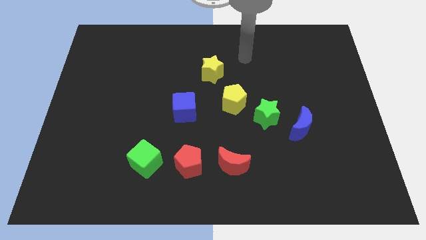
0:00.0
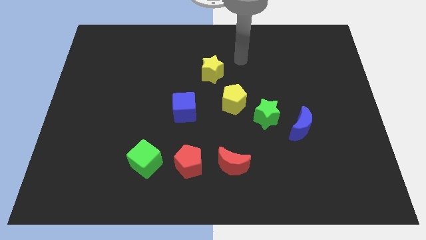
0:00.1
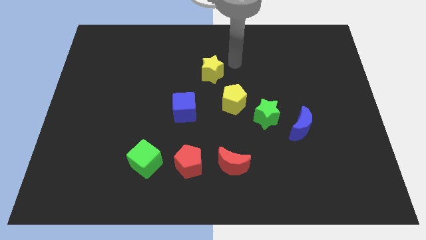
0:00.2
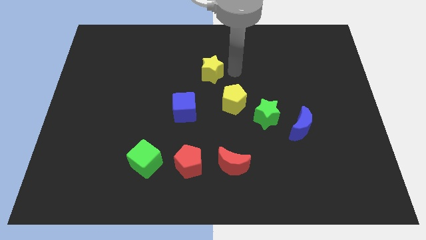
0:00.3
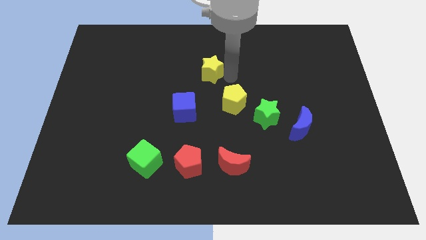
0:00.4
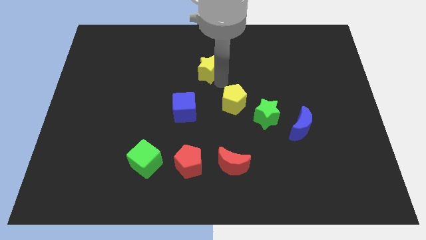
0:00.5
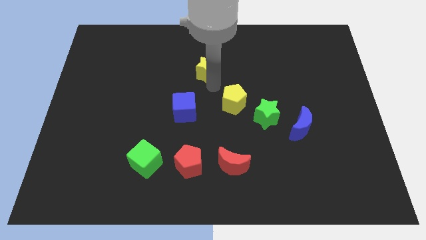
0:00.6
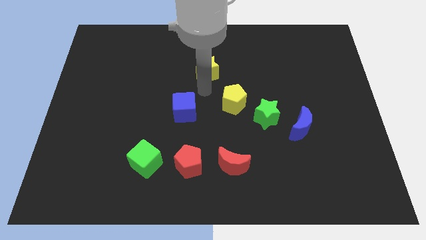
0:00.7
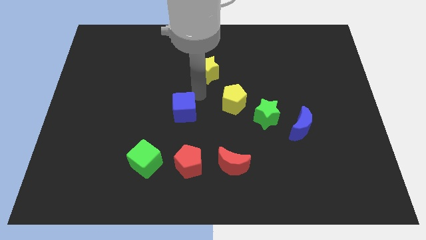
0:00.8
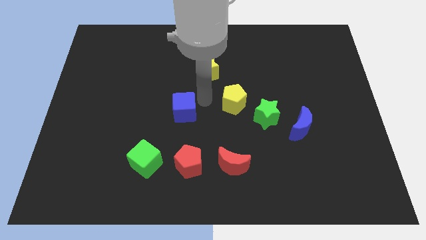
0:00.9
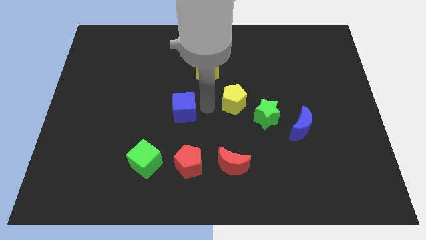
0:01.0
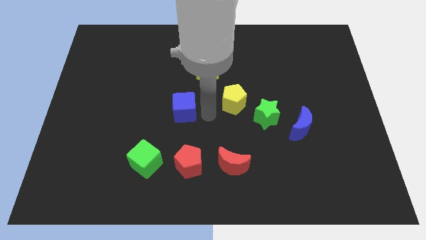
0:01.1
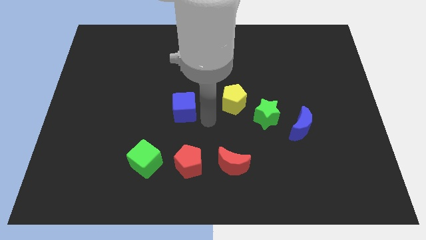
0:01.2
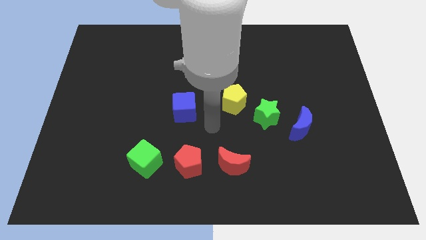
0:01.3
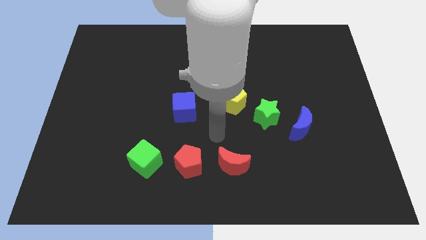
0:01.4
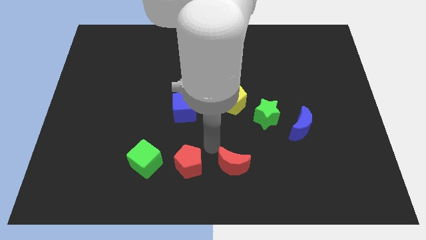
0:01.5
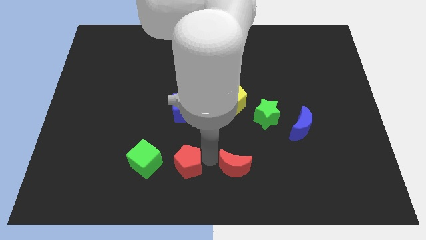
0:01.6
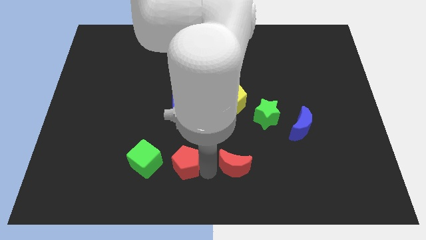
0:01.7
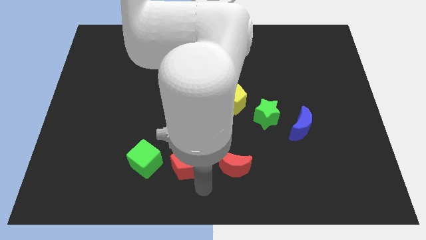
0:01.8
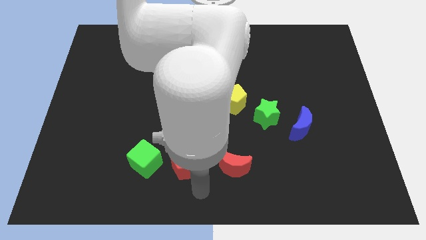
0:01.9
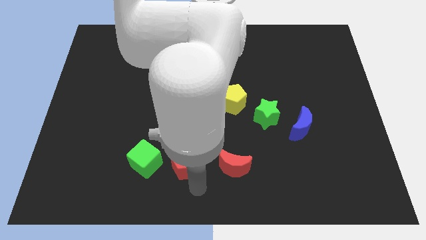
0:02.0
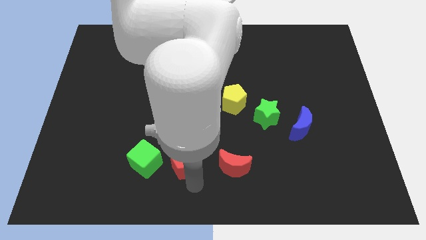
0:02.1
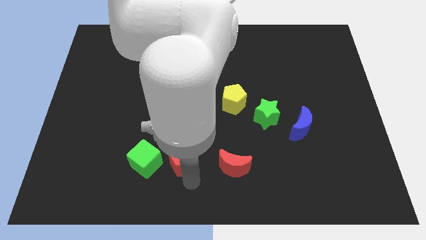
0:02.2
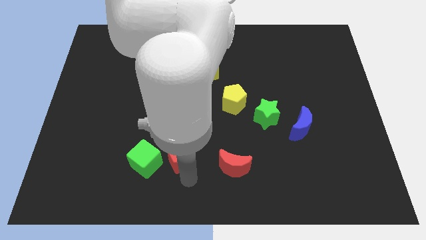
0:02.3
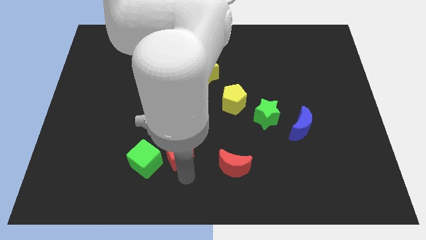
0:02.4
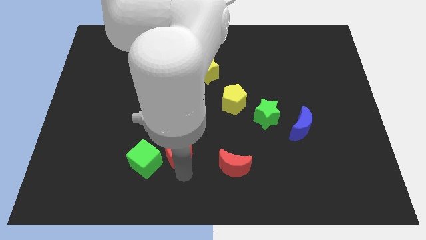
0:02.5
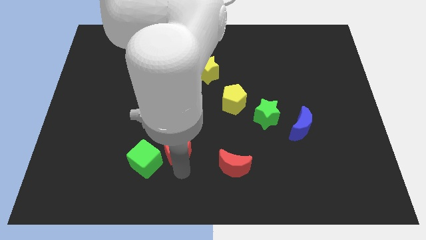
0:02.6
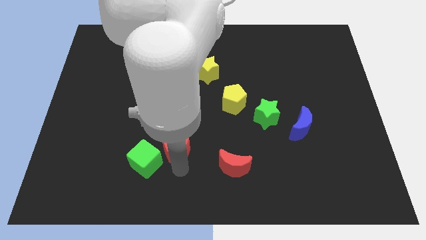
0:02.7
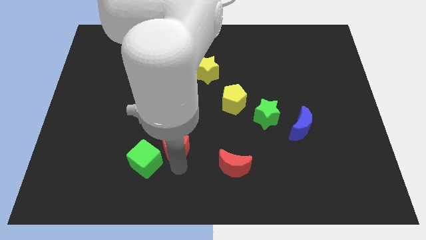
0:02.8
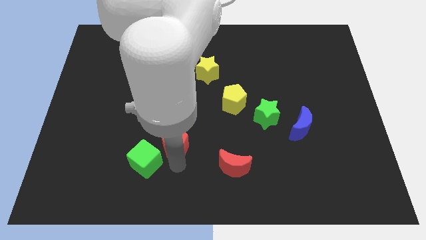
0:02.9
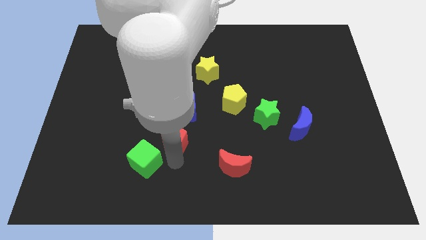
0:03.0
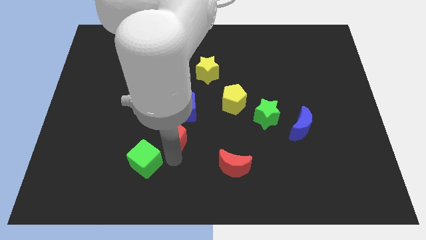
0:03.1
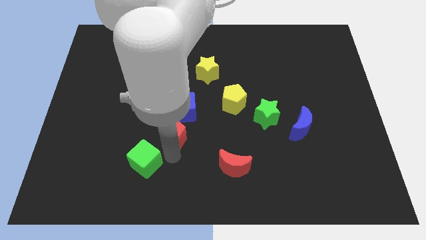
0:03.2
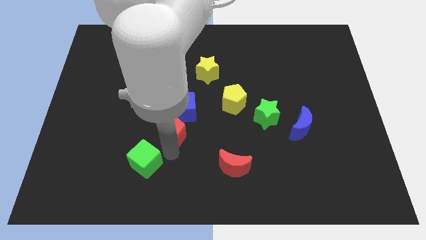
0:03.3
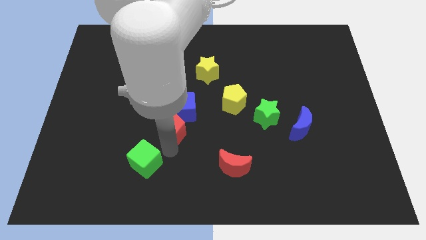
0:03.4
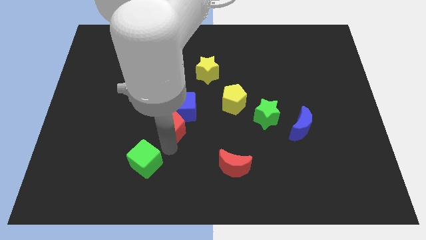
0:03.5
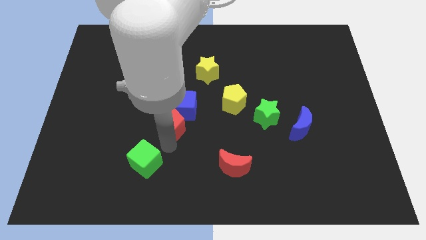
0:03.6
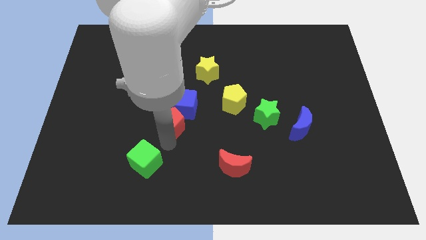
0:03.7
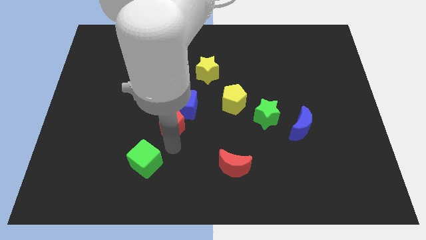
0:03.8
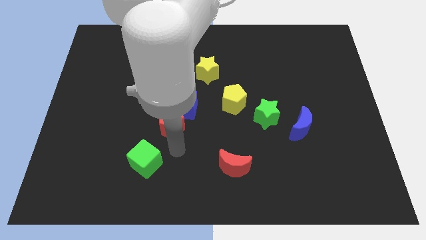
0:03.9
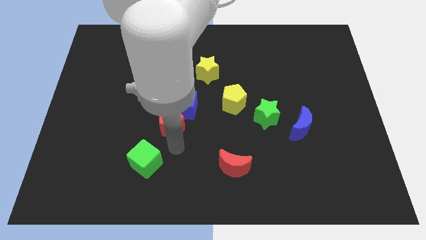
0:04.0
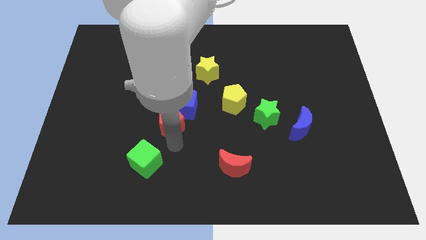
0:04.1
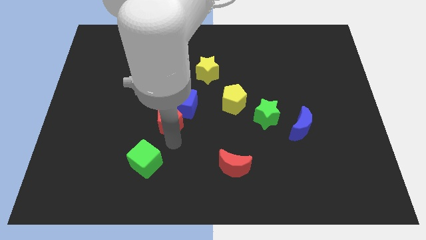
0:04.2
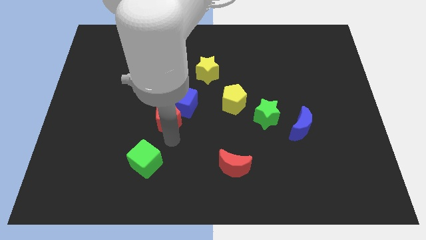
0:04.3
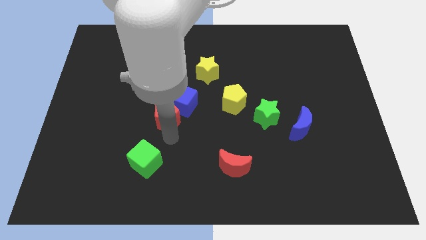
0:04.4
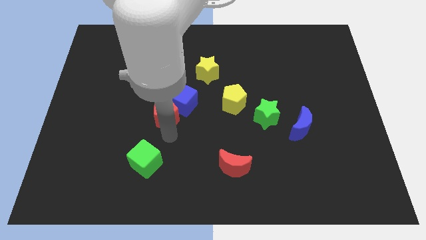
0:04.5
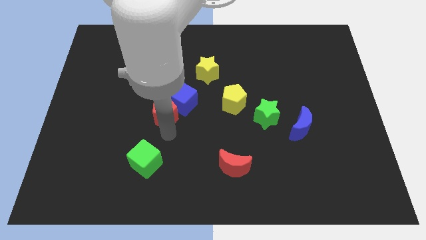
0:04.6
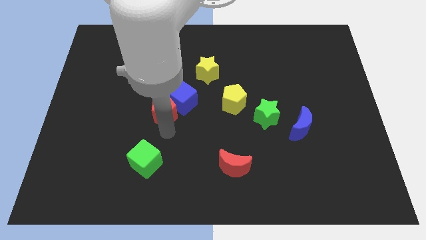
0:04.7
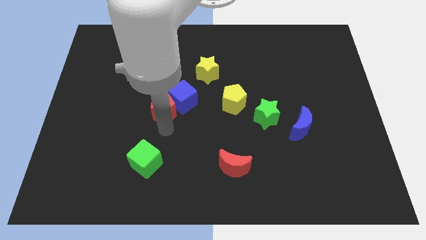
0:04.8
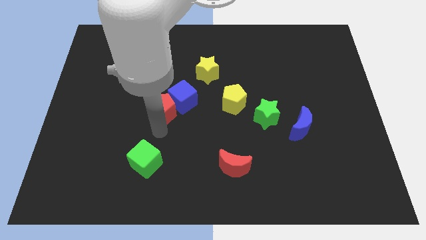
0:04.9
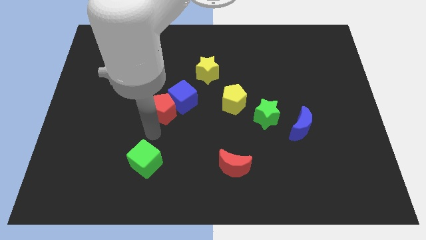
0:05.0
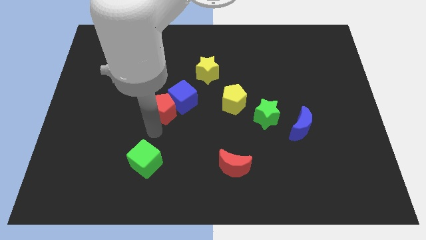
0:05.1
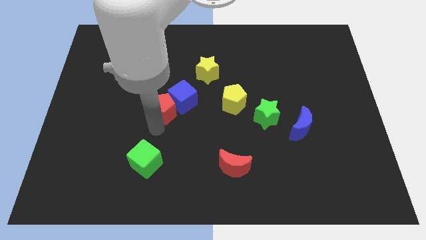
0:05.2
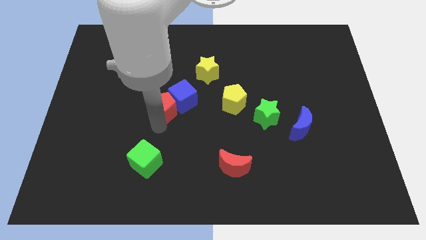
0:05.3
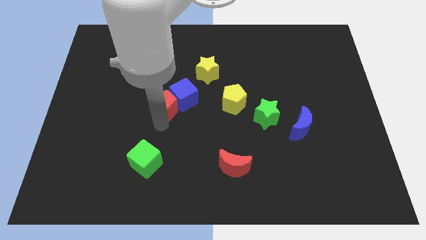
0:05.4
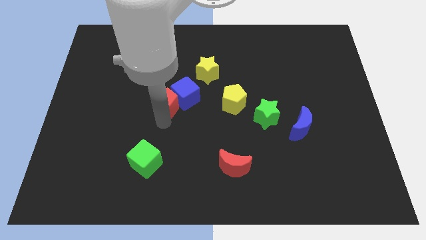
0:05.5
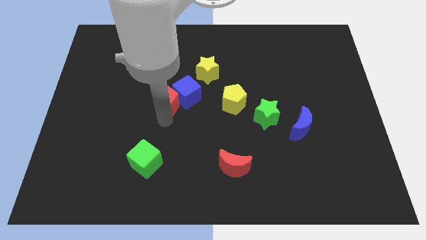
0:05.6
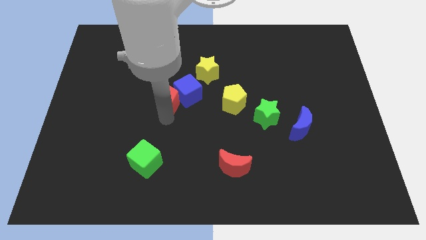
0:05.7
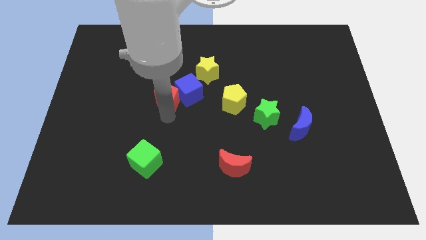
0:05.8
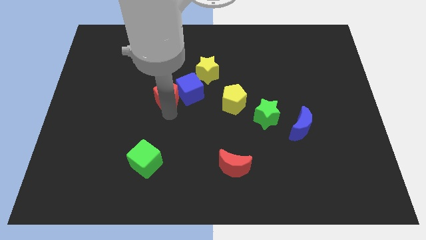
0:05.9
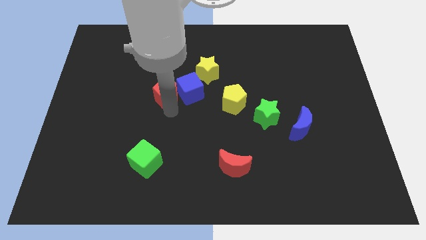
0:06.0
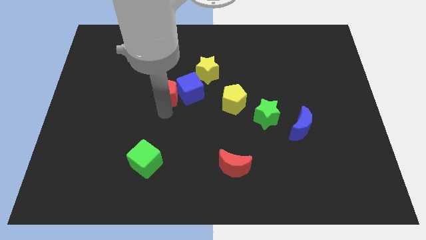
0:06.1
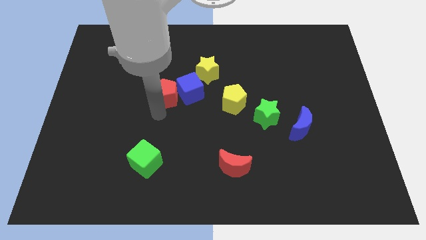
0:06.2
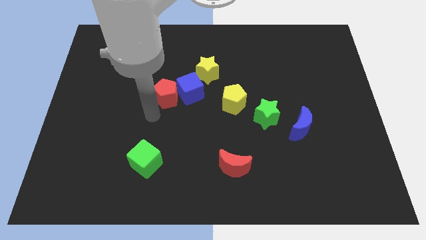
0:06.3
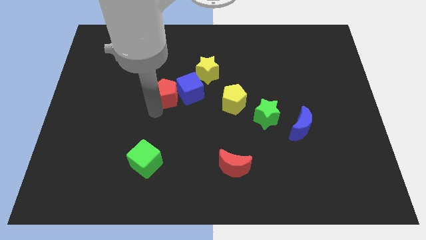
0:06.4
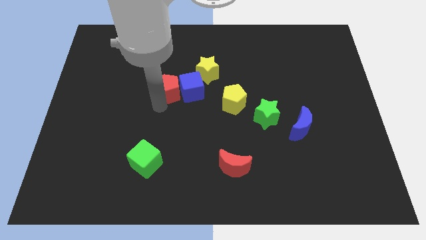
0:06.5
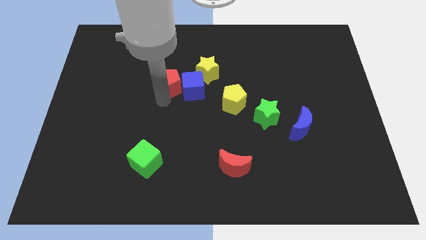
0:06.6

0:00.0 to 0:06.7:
slide the red pentagon upwards

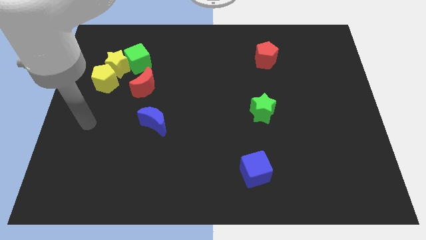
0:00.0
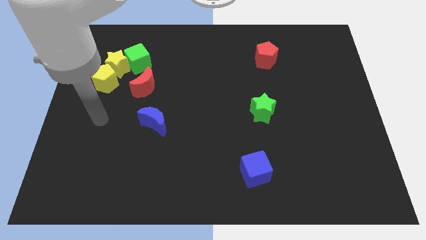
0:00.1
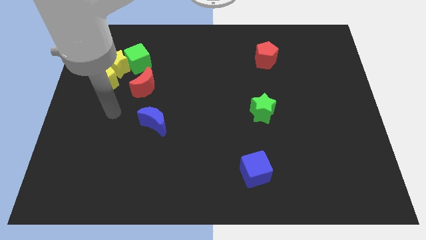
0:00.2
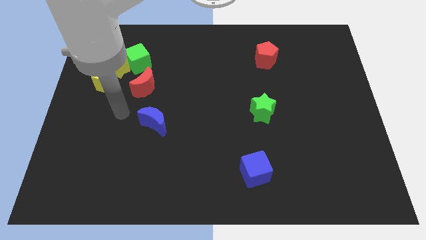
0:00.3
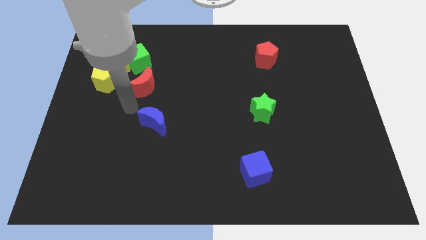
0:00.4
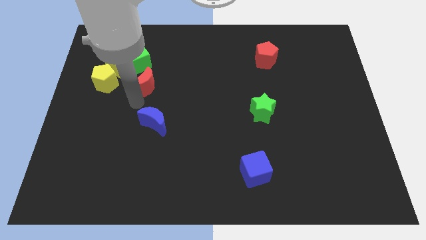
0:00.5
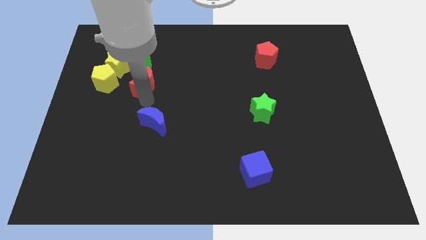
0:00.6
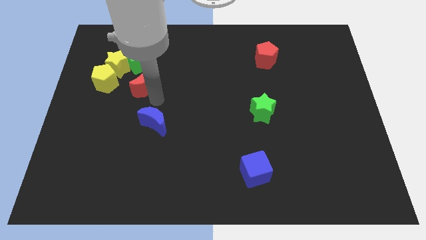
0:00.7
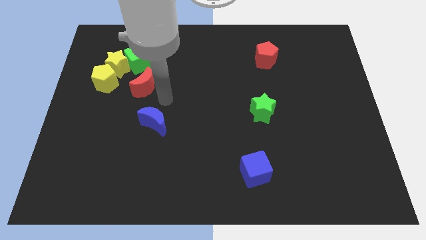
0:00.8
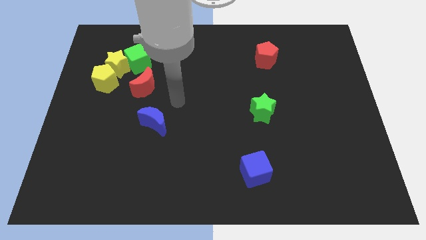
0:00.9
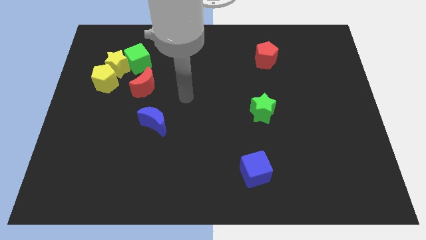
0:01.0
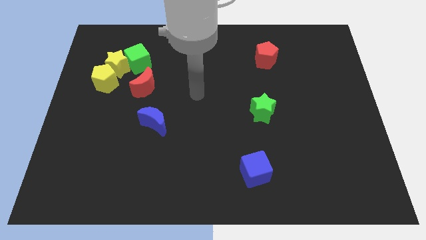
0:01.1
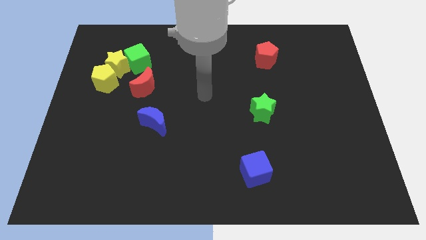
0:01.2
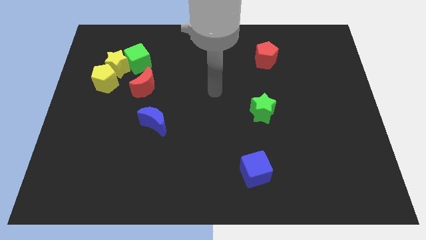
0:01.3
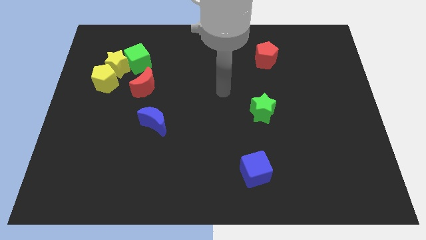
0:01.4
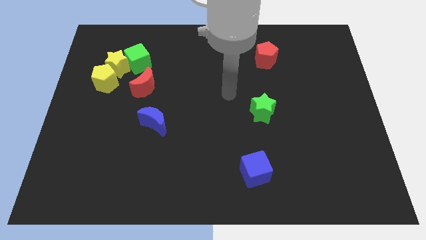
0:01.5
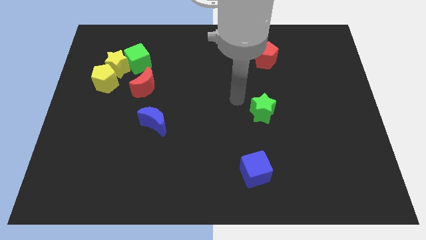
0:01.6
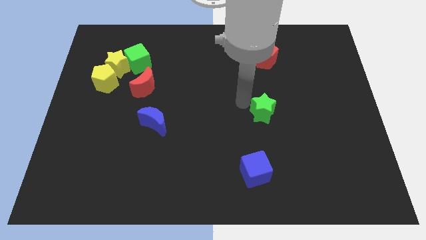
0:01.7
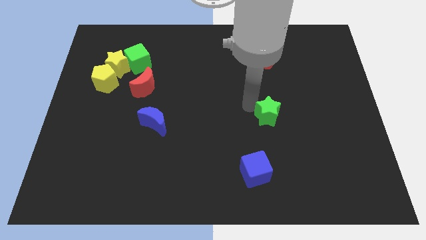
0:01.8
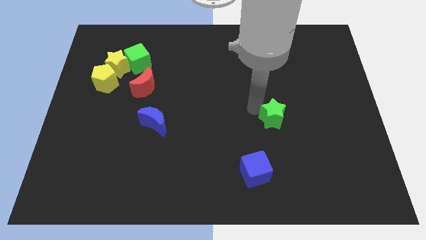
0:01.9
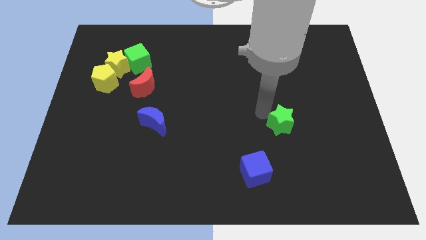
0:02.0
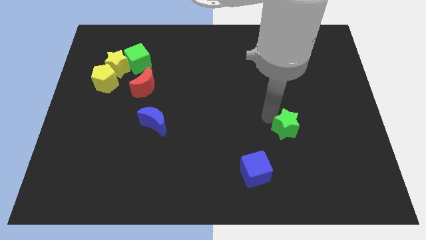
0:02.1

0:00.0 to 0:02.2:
move the green star diagonally down and right a bit
